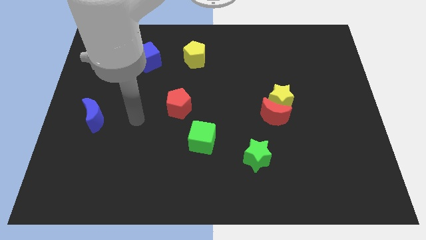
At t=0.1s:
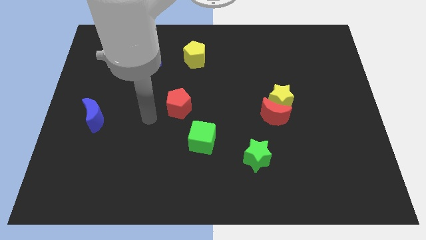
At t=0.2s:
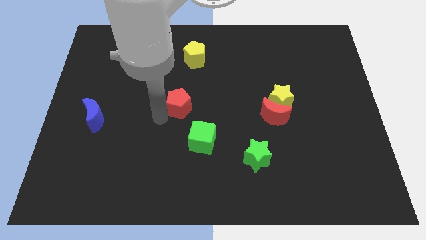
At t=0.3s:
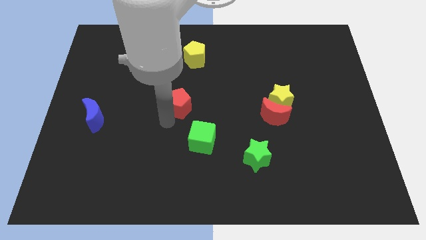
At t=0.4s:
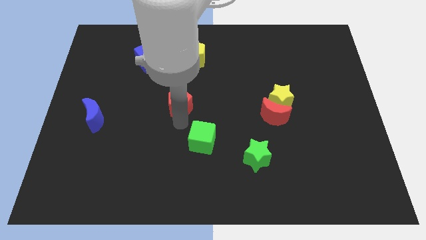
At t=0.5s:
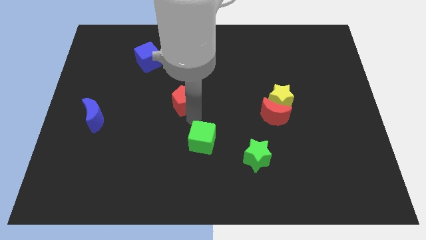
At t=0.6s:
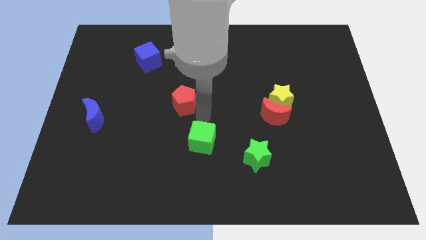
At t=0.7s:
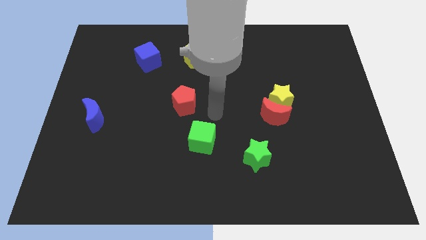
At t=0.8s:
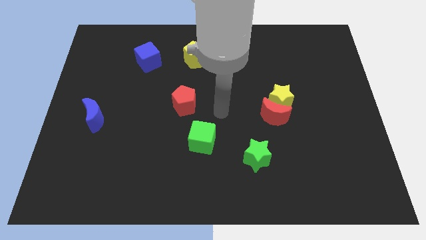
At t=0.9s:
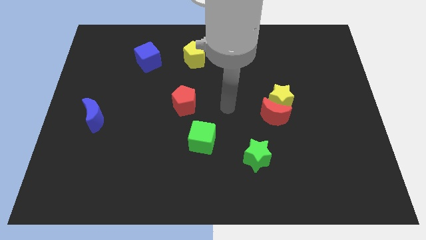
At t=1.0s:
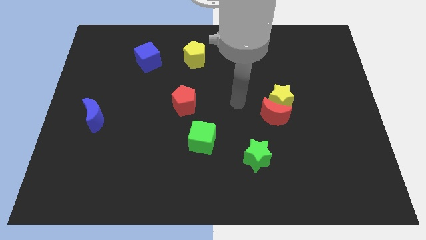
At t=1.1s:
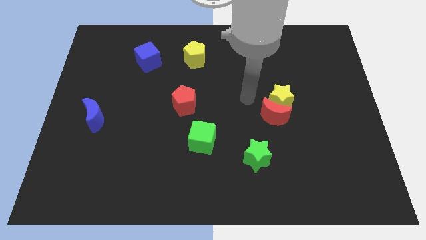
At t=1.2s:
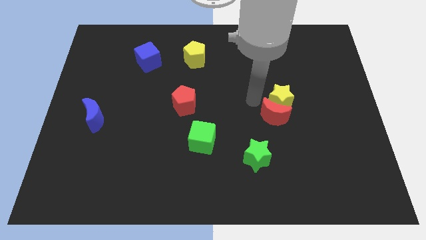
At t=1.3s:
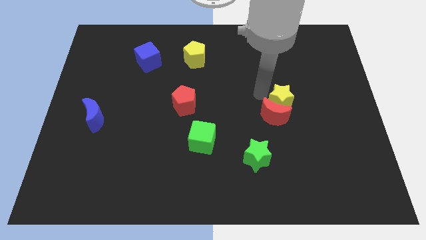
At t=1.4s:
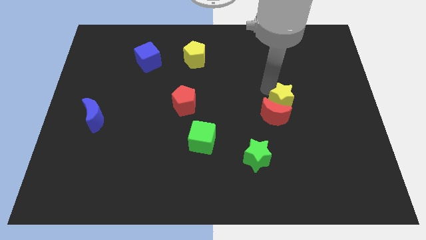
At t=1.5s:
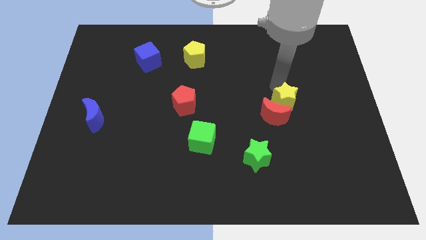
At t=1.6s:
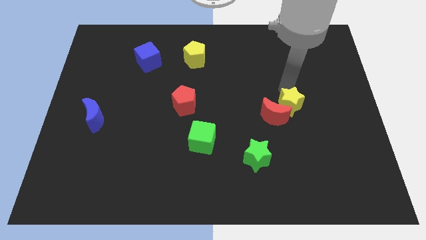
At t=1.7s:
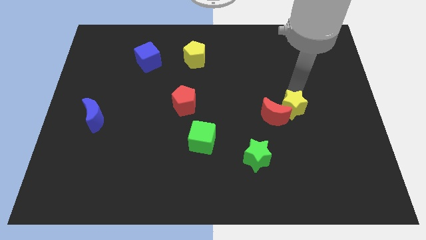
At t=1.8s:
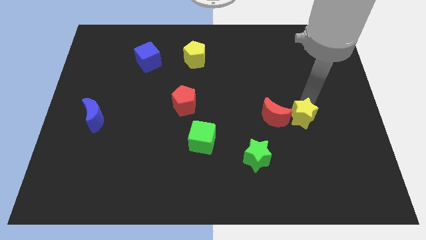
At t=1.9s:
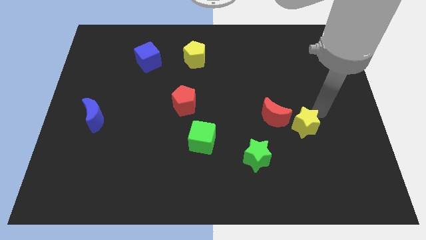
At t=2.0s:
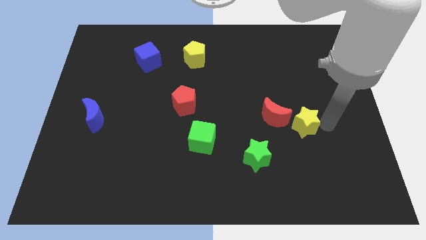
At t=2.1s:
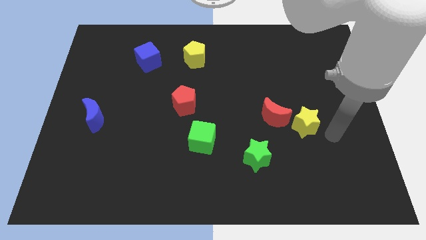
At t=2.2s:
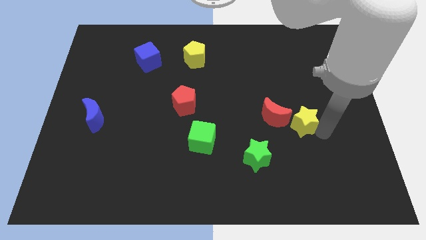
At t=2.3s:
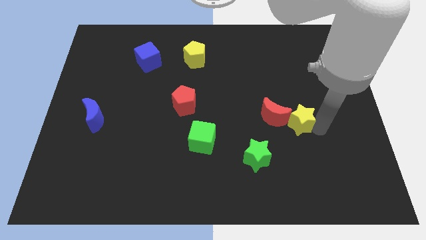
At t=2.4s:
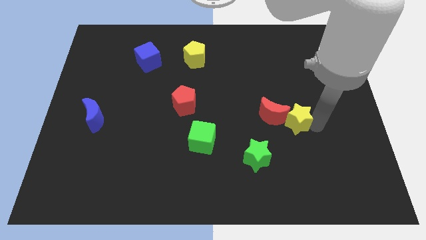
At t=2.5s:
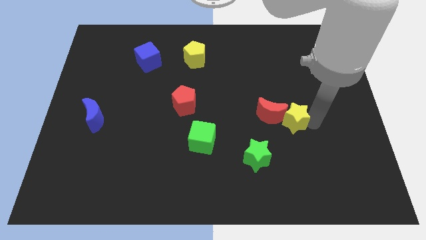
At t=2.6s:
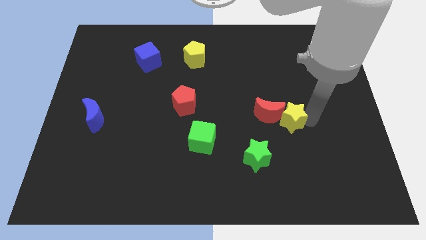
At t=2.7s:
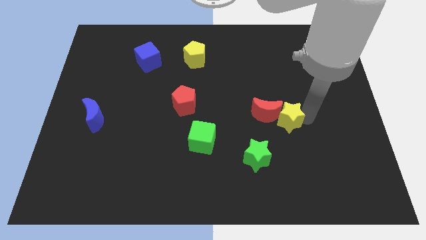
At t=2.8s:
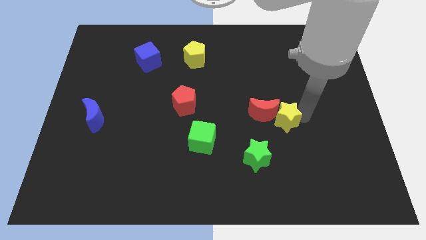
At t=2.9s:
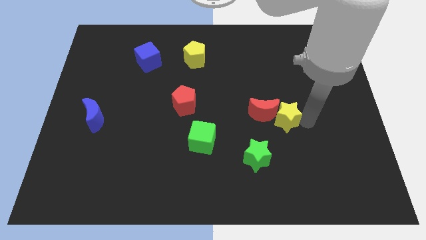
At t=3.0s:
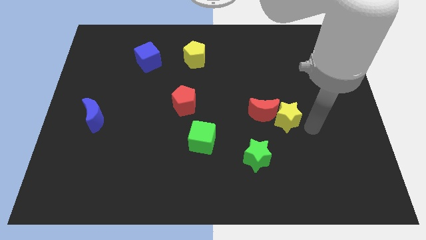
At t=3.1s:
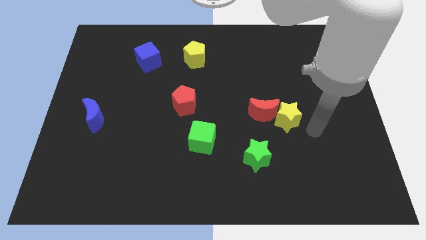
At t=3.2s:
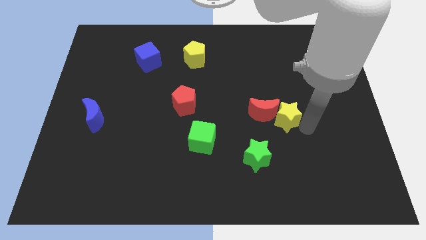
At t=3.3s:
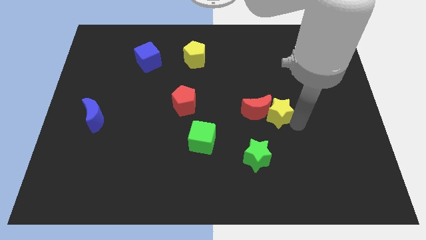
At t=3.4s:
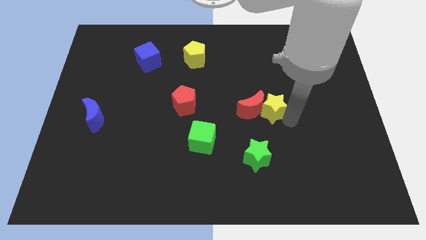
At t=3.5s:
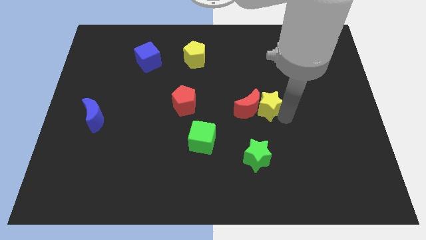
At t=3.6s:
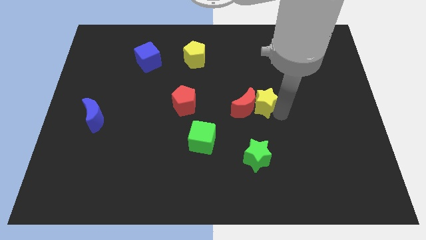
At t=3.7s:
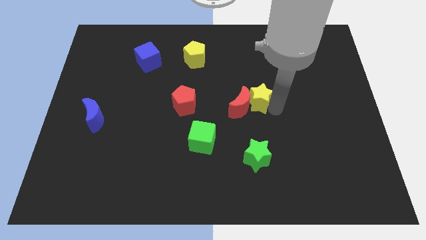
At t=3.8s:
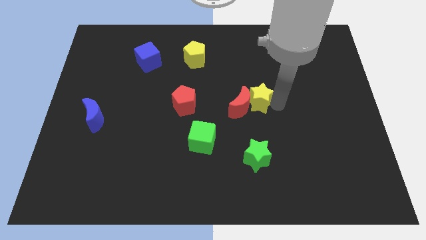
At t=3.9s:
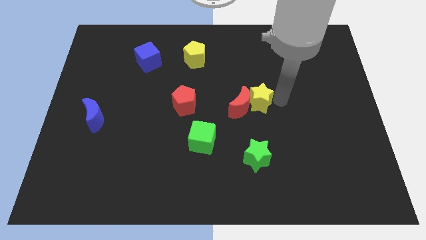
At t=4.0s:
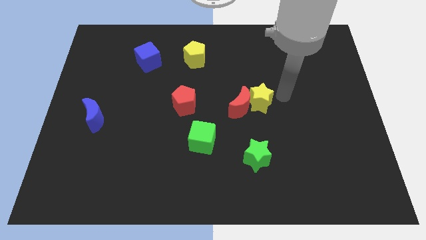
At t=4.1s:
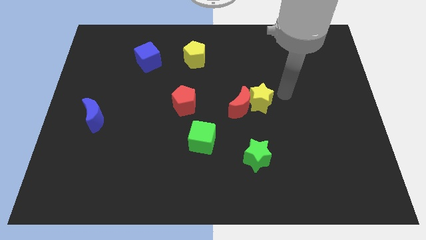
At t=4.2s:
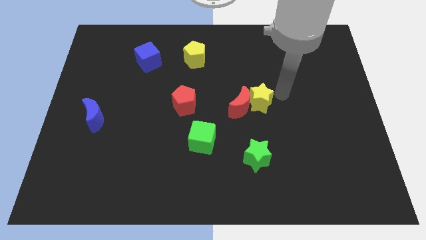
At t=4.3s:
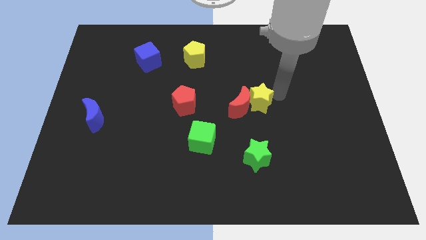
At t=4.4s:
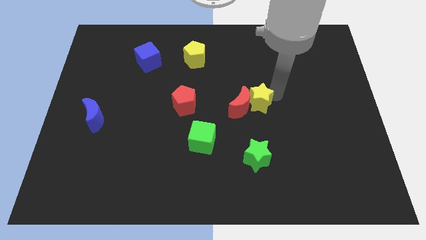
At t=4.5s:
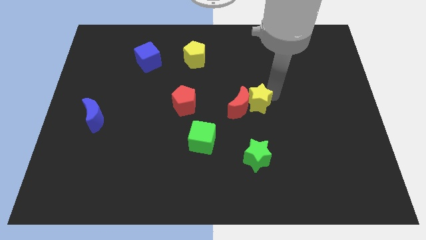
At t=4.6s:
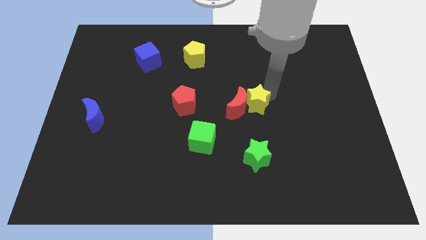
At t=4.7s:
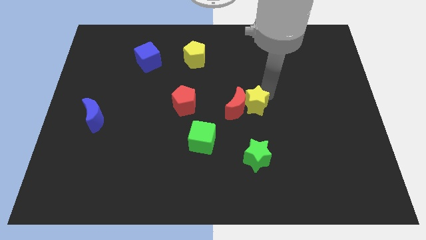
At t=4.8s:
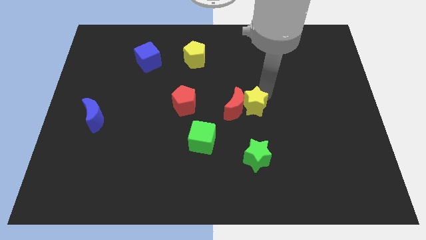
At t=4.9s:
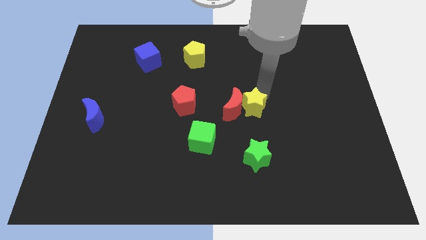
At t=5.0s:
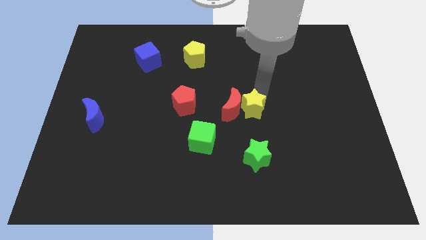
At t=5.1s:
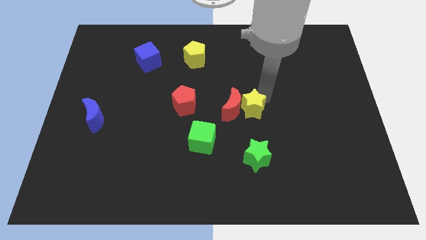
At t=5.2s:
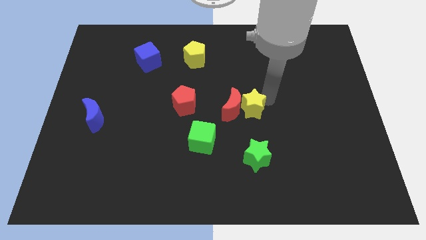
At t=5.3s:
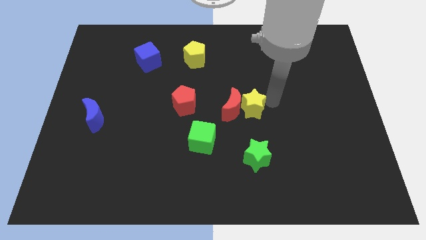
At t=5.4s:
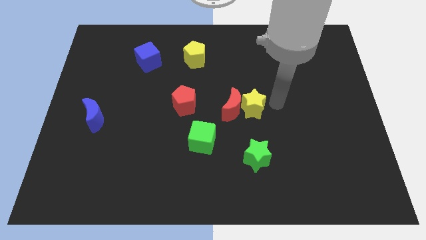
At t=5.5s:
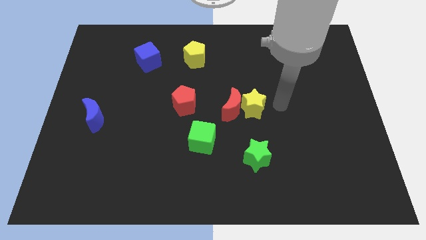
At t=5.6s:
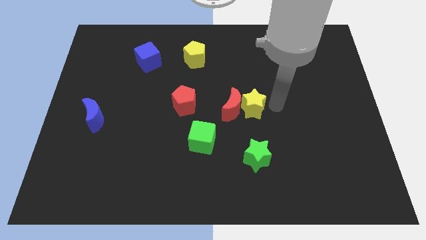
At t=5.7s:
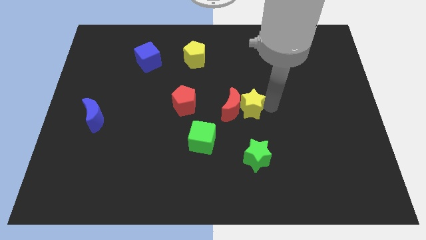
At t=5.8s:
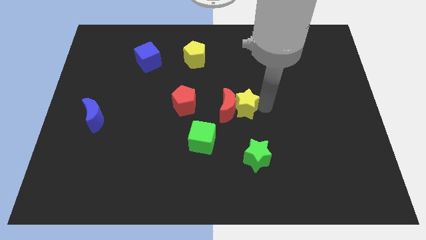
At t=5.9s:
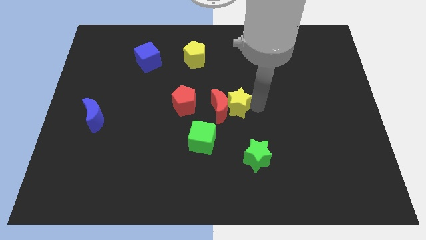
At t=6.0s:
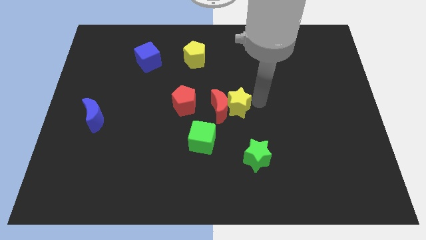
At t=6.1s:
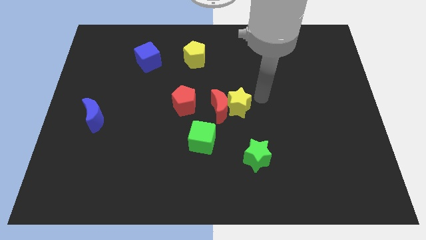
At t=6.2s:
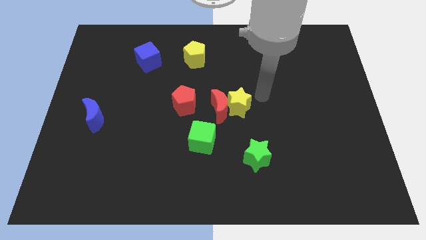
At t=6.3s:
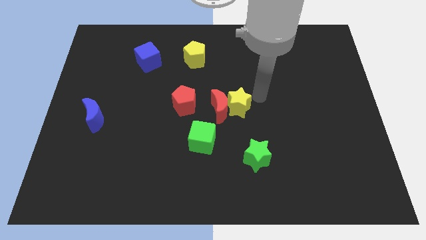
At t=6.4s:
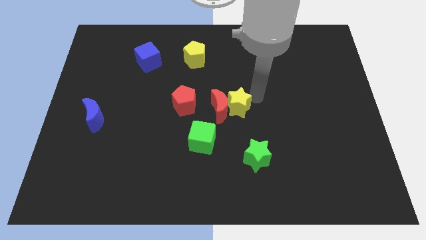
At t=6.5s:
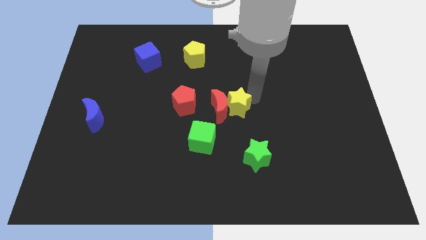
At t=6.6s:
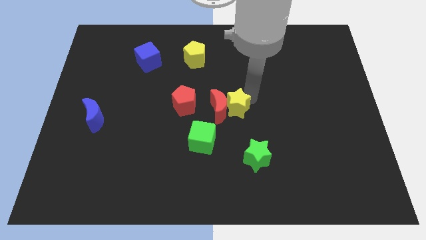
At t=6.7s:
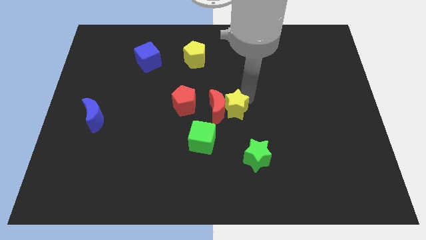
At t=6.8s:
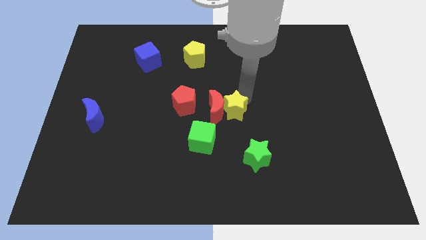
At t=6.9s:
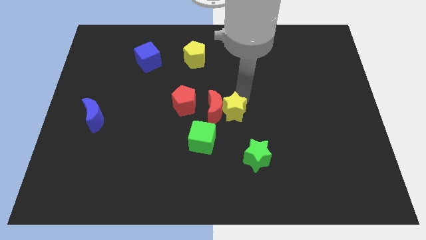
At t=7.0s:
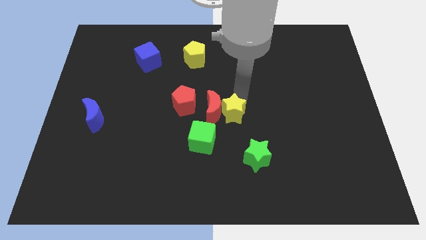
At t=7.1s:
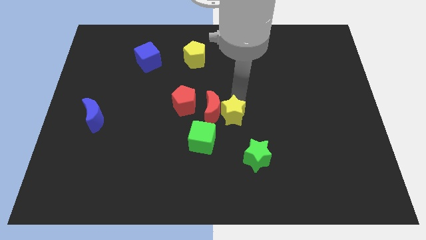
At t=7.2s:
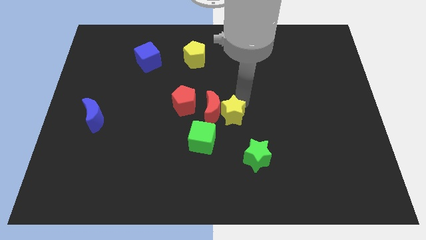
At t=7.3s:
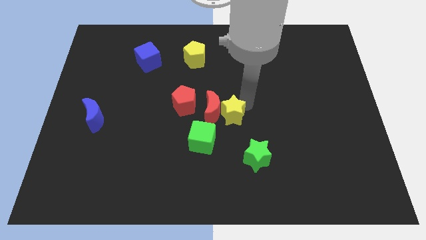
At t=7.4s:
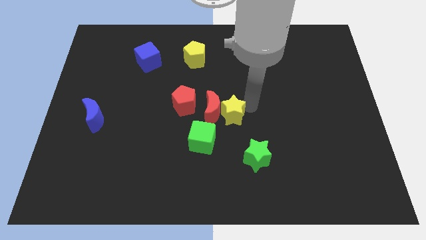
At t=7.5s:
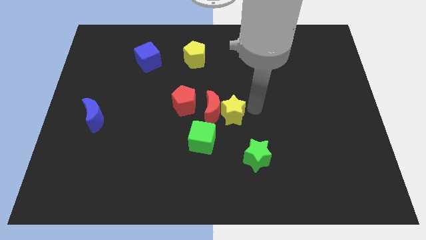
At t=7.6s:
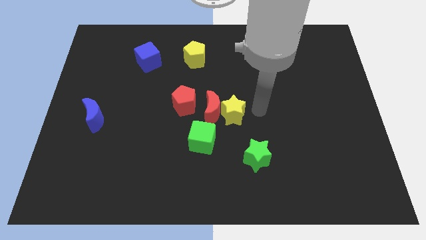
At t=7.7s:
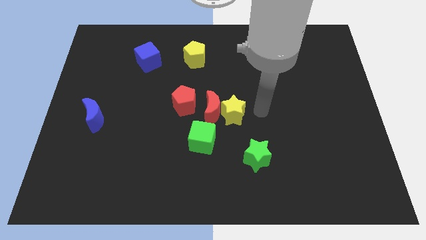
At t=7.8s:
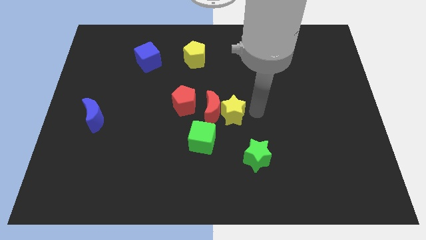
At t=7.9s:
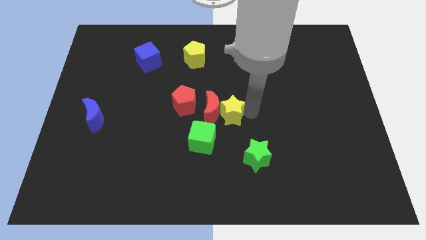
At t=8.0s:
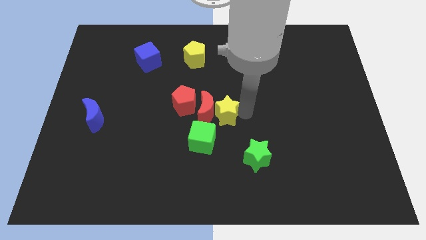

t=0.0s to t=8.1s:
slide the yellow star to the bottom right of the red pentagon
